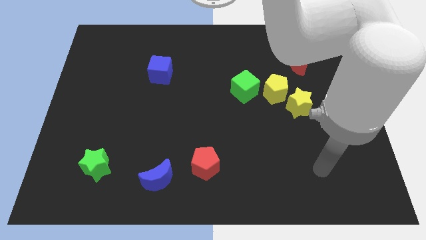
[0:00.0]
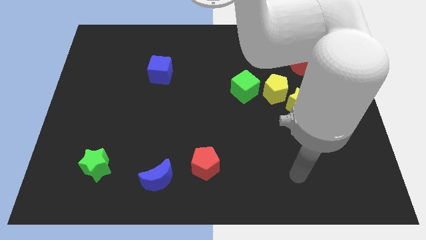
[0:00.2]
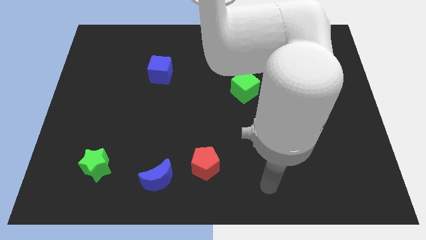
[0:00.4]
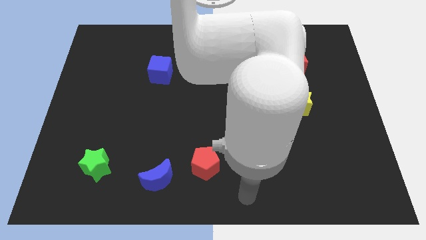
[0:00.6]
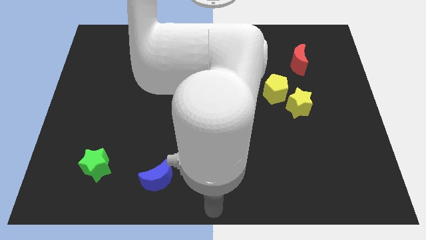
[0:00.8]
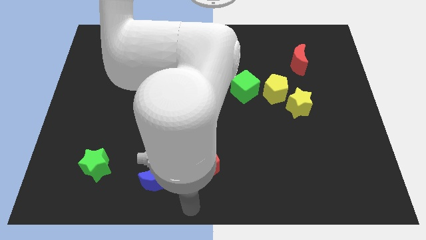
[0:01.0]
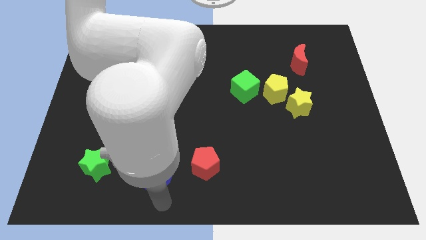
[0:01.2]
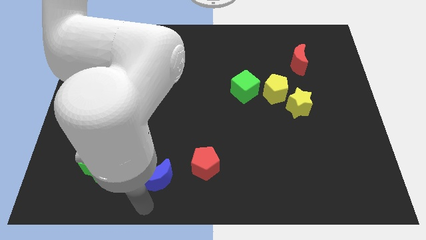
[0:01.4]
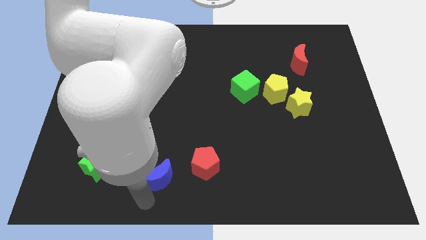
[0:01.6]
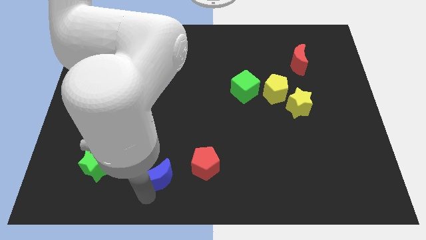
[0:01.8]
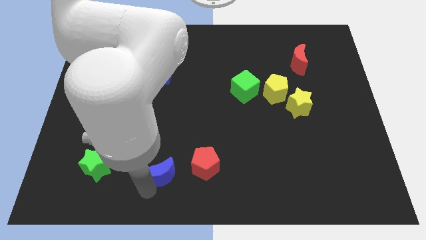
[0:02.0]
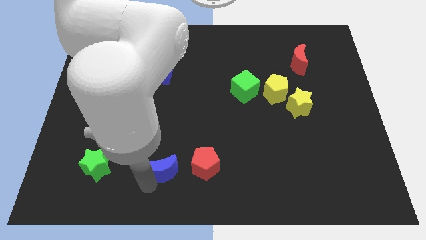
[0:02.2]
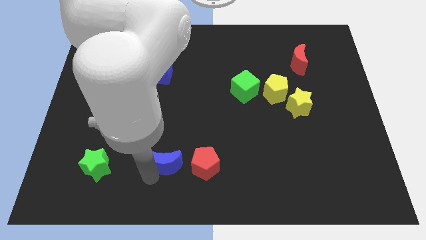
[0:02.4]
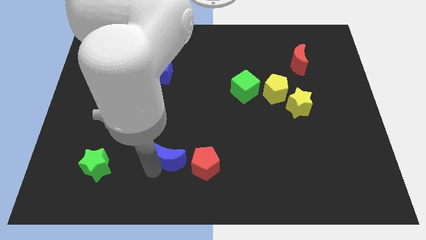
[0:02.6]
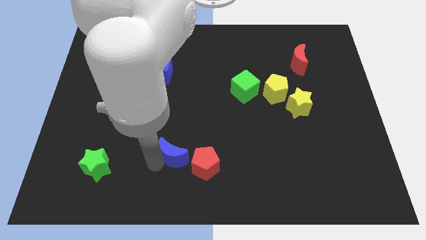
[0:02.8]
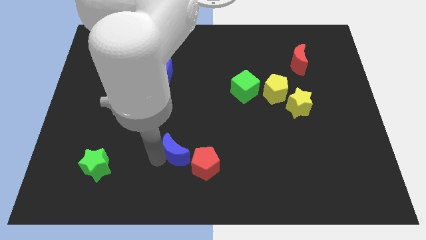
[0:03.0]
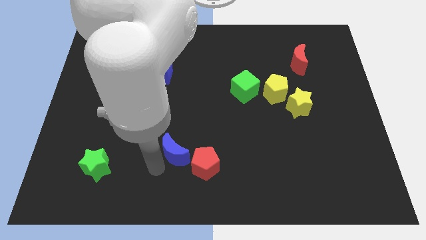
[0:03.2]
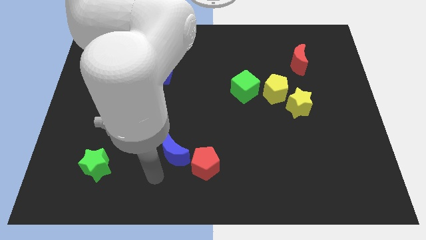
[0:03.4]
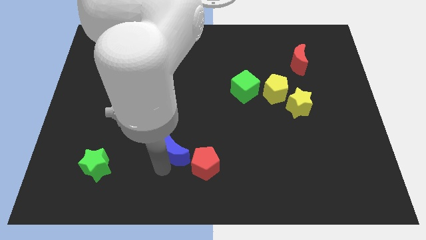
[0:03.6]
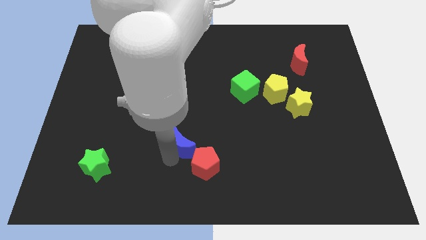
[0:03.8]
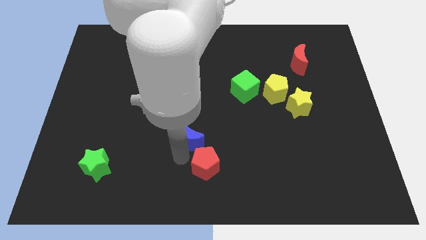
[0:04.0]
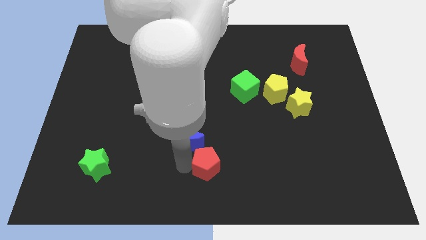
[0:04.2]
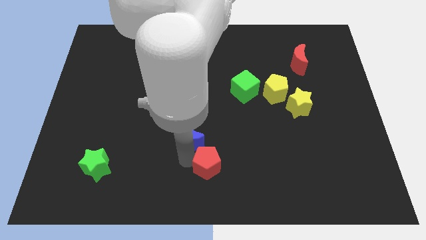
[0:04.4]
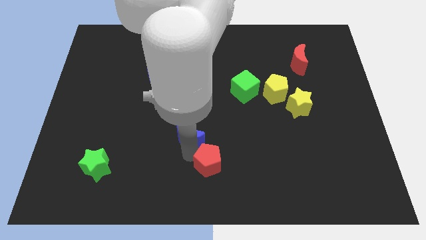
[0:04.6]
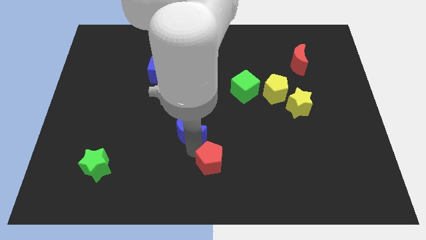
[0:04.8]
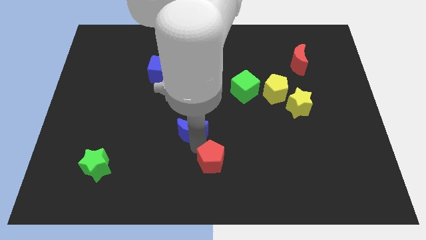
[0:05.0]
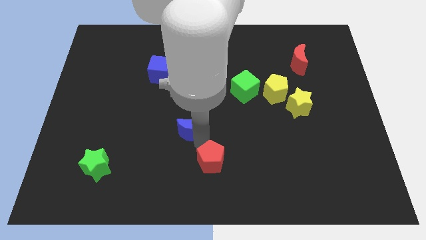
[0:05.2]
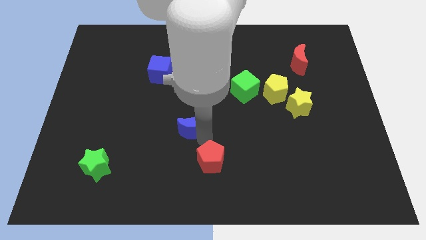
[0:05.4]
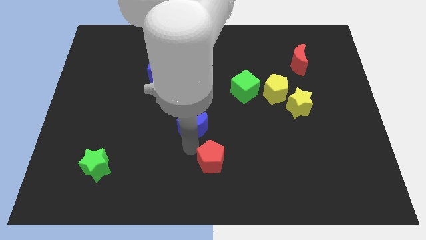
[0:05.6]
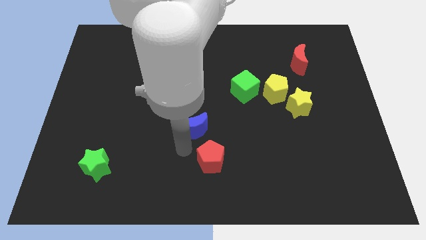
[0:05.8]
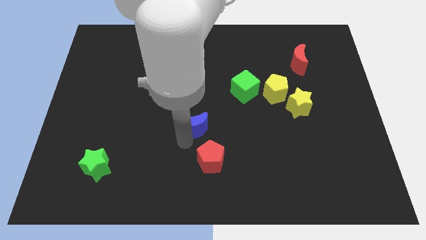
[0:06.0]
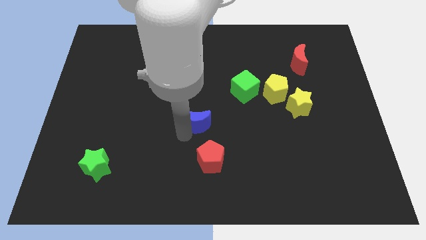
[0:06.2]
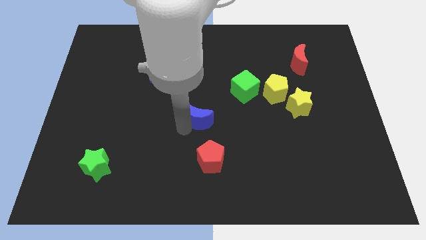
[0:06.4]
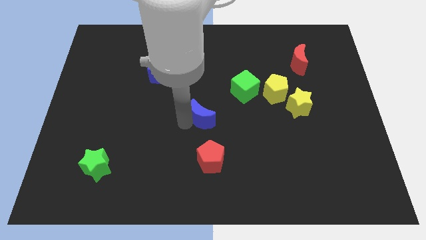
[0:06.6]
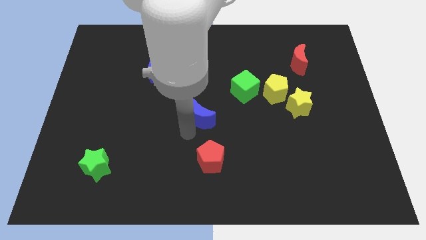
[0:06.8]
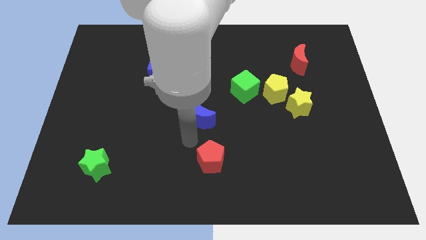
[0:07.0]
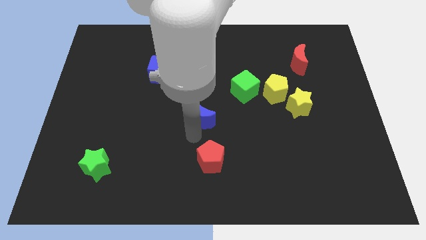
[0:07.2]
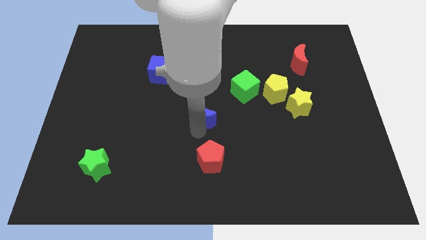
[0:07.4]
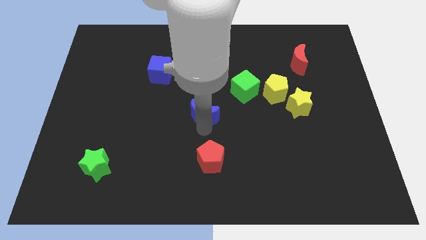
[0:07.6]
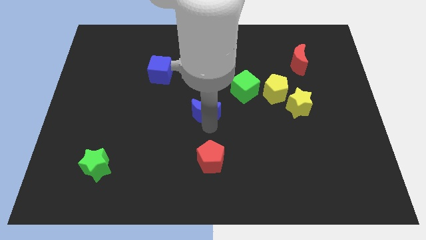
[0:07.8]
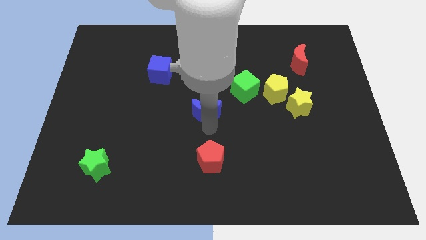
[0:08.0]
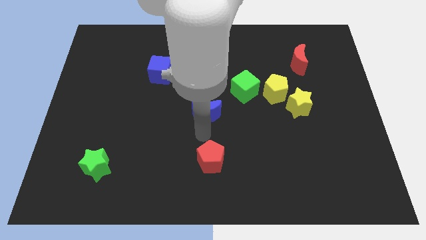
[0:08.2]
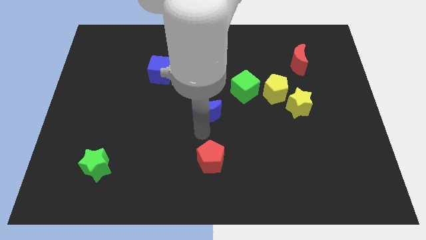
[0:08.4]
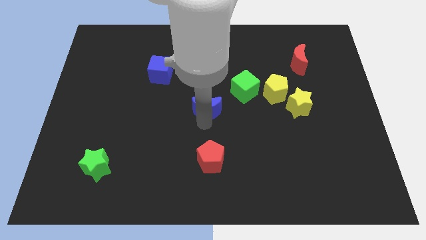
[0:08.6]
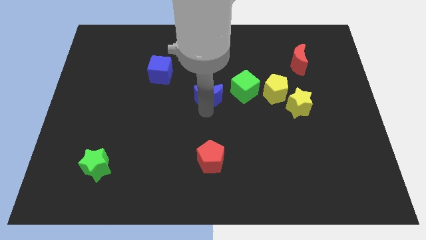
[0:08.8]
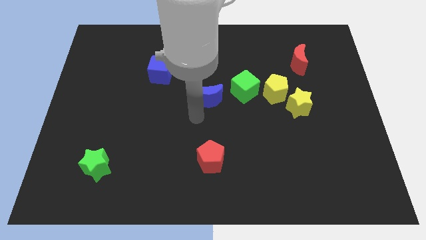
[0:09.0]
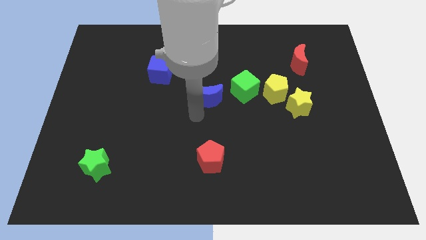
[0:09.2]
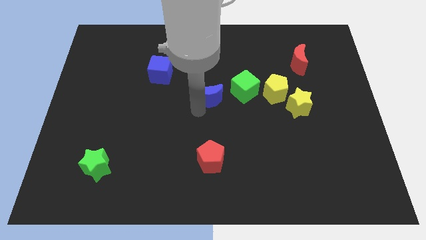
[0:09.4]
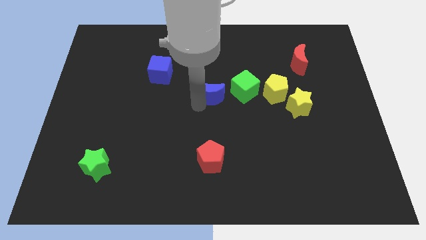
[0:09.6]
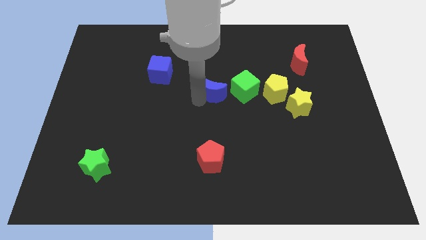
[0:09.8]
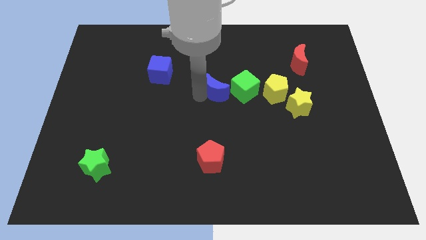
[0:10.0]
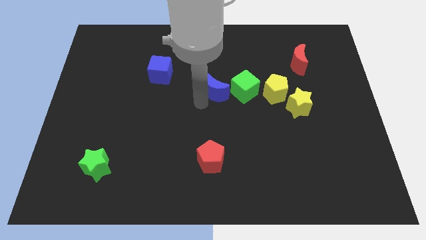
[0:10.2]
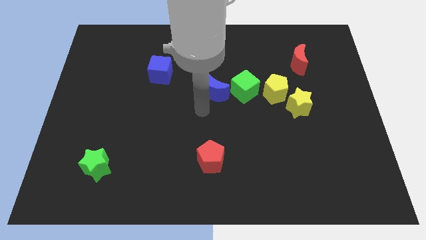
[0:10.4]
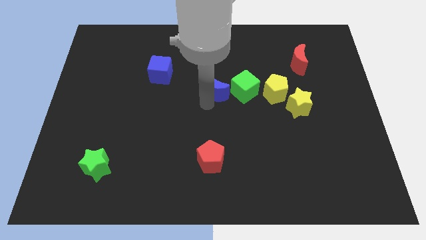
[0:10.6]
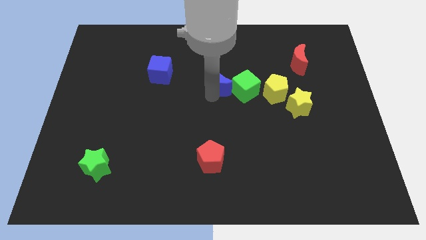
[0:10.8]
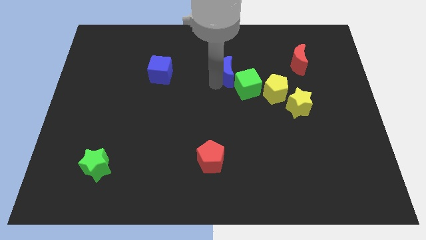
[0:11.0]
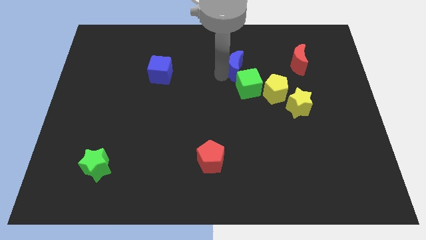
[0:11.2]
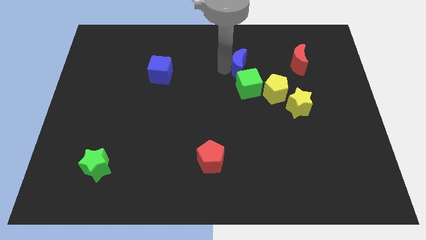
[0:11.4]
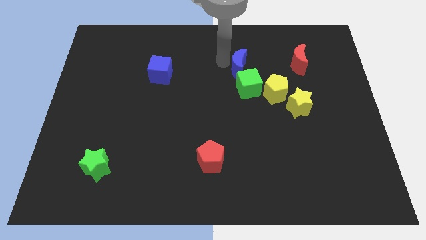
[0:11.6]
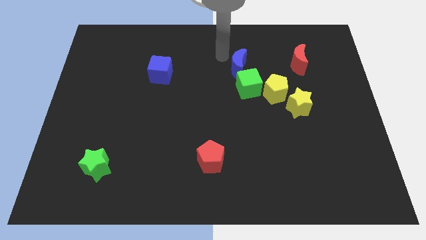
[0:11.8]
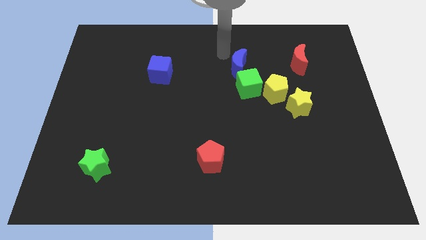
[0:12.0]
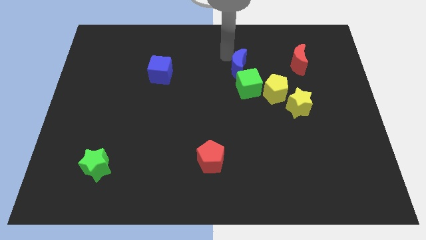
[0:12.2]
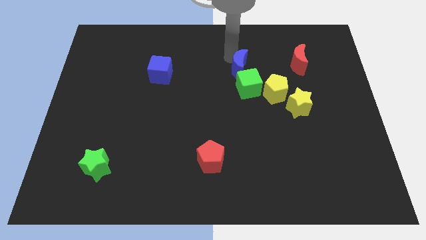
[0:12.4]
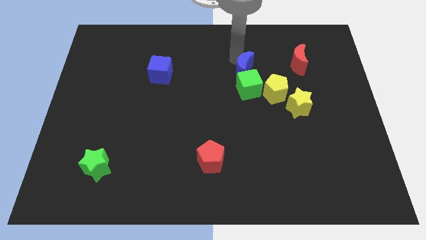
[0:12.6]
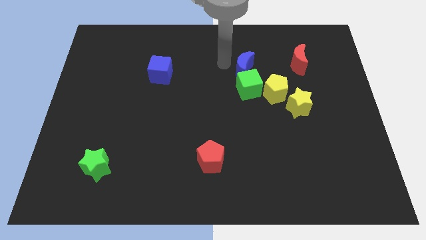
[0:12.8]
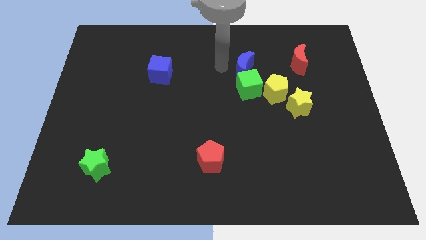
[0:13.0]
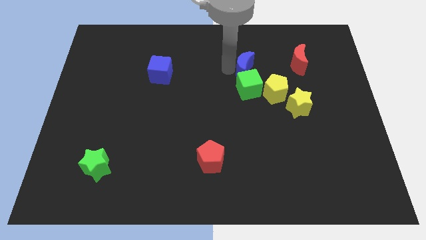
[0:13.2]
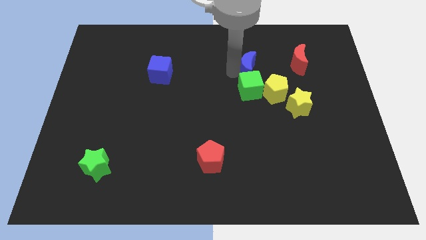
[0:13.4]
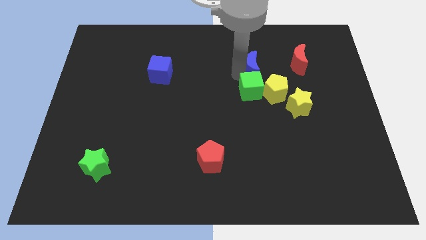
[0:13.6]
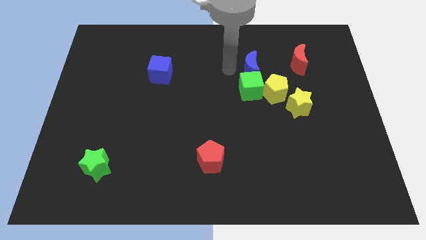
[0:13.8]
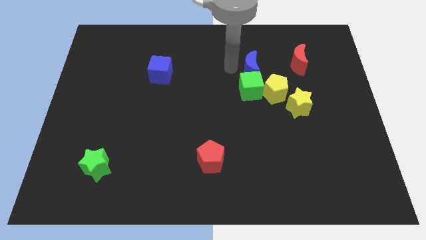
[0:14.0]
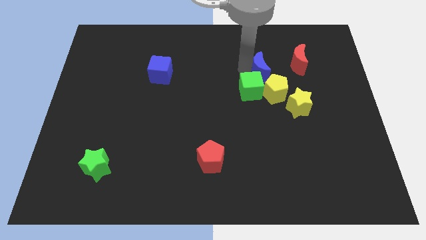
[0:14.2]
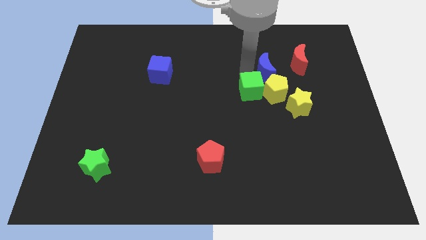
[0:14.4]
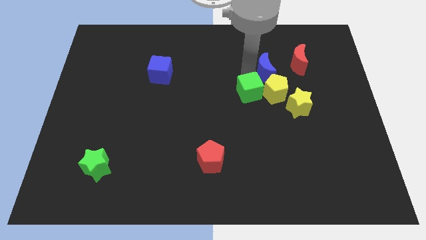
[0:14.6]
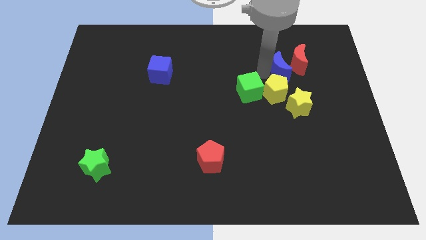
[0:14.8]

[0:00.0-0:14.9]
slide the blue moon to the red moon

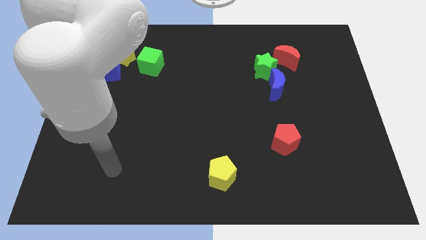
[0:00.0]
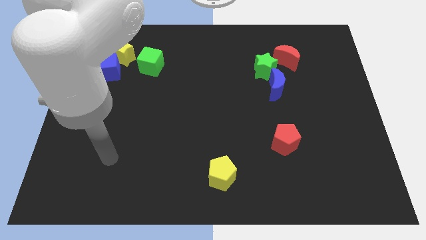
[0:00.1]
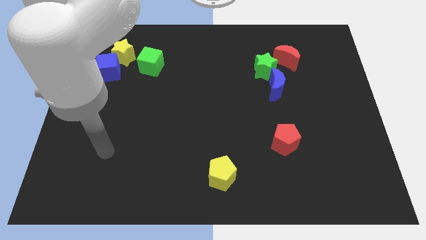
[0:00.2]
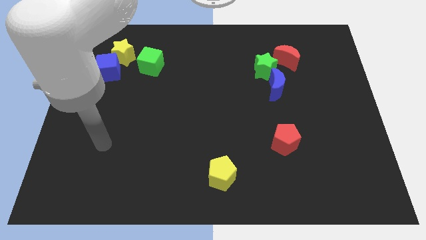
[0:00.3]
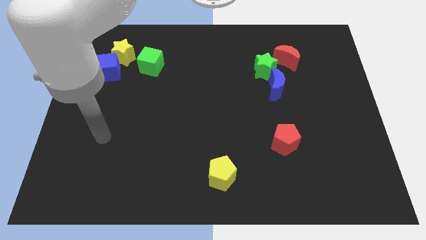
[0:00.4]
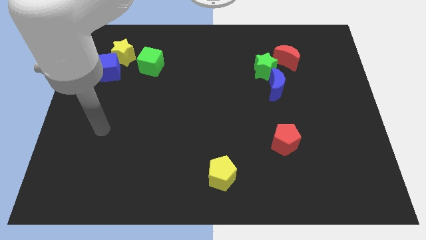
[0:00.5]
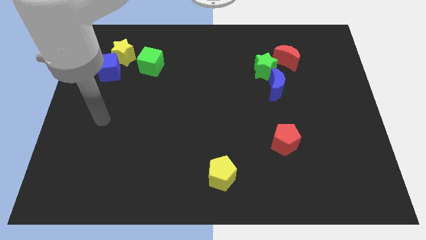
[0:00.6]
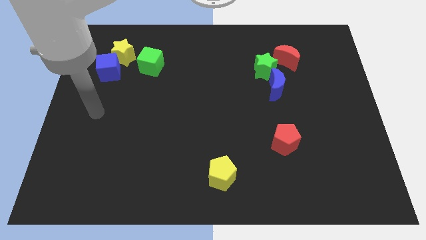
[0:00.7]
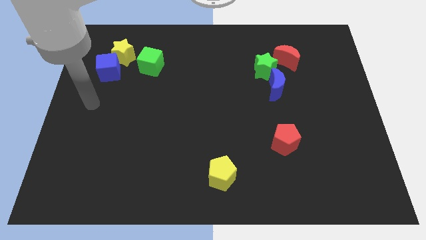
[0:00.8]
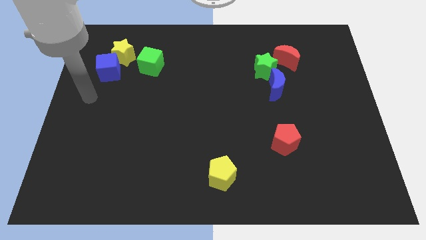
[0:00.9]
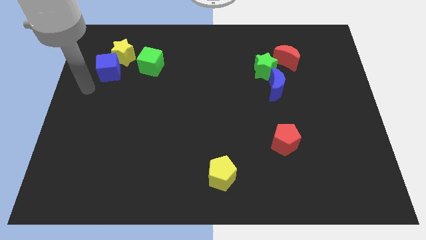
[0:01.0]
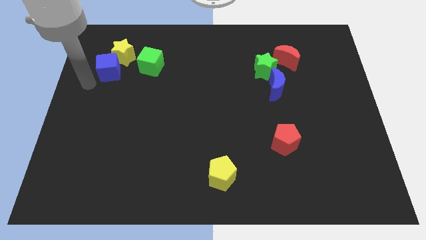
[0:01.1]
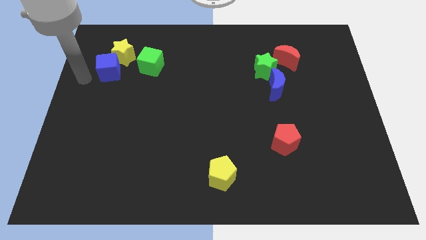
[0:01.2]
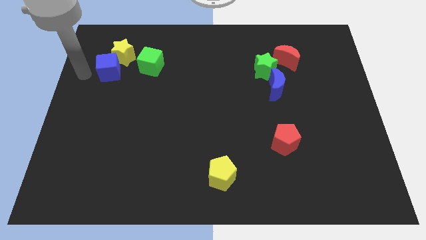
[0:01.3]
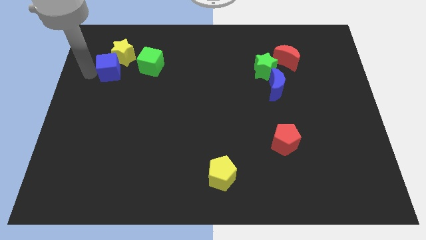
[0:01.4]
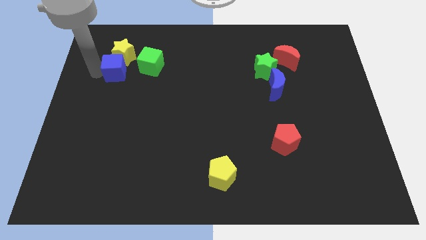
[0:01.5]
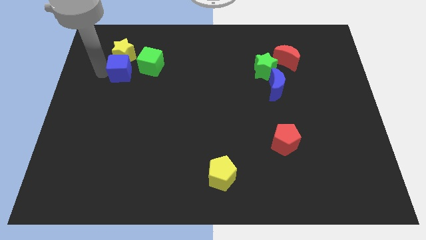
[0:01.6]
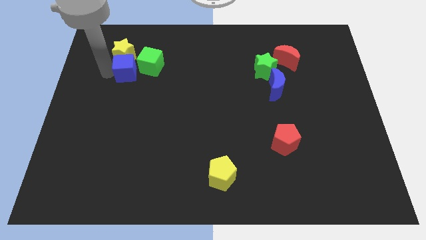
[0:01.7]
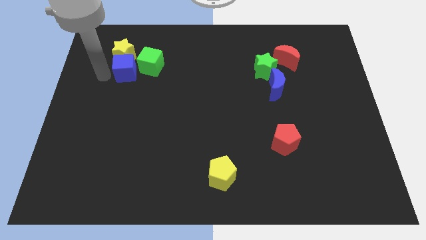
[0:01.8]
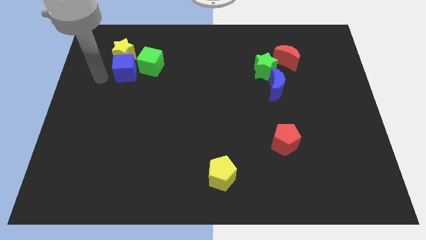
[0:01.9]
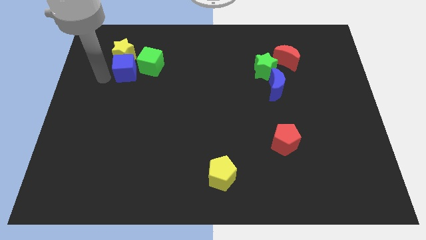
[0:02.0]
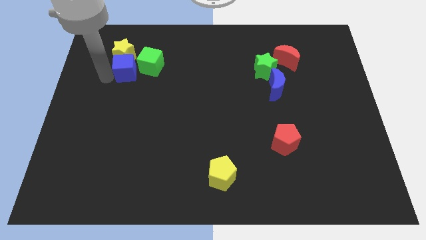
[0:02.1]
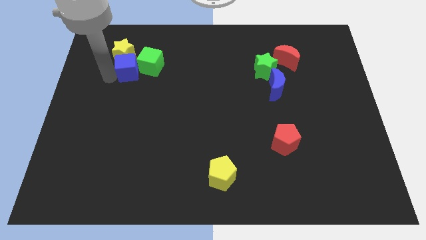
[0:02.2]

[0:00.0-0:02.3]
slide the blue cube close to the green cube
